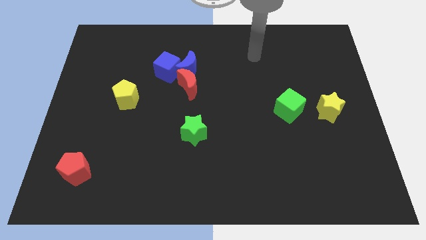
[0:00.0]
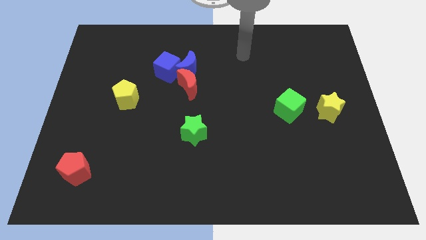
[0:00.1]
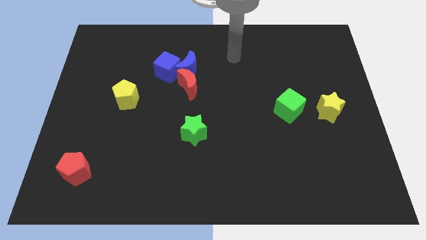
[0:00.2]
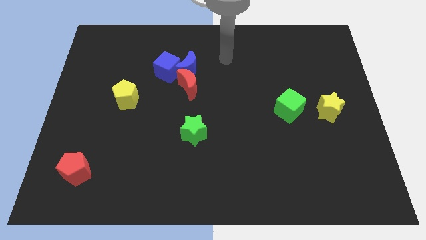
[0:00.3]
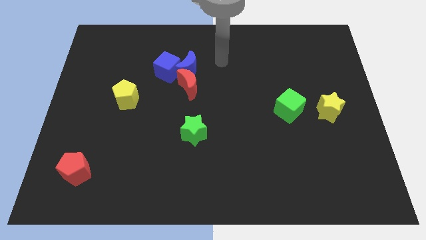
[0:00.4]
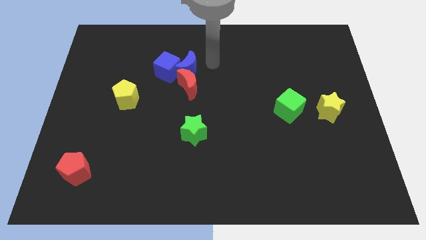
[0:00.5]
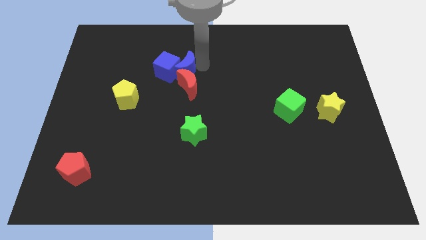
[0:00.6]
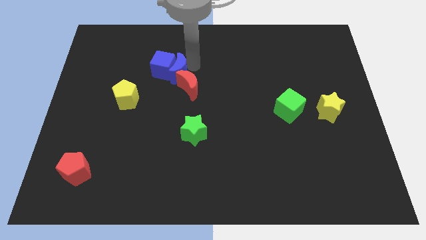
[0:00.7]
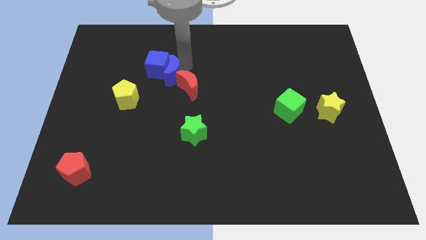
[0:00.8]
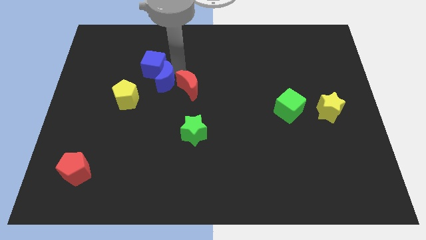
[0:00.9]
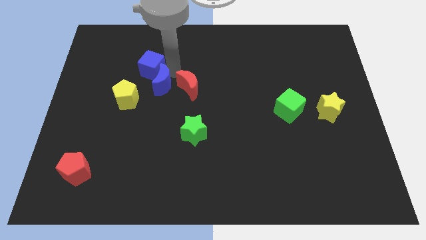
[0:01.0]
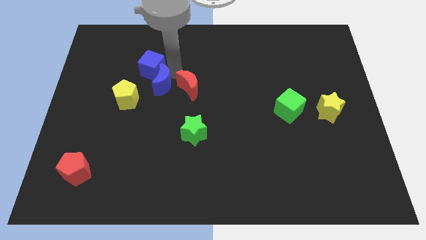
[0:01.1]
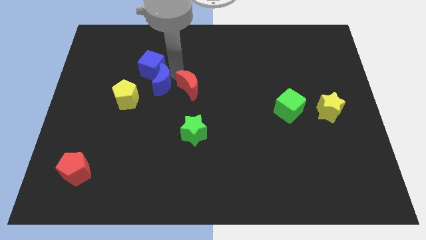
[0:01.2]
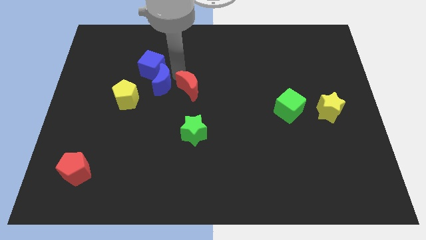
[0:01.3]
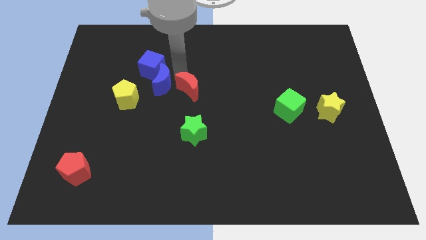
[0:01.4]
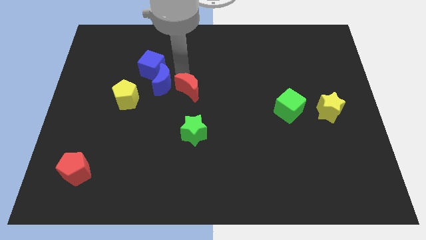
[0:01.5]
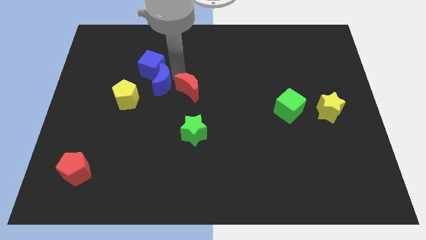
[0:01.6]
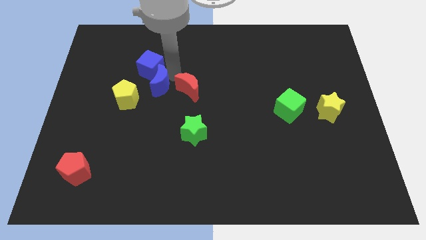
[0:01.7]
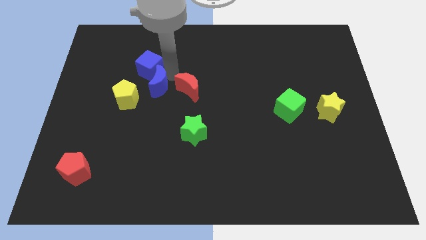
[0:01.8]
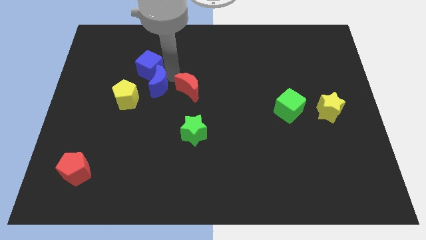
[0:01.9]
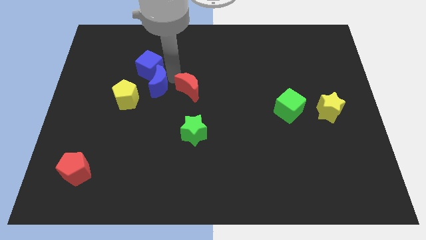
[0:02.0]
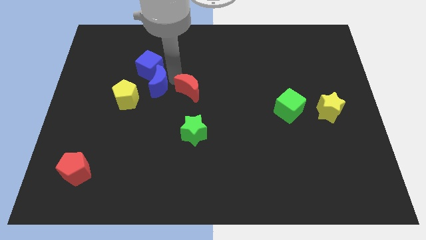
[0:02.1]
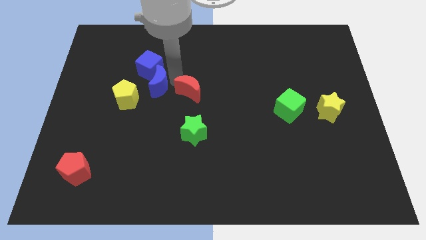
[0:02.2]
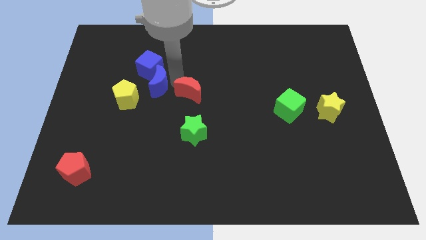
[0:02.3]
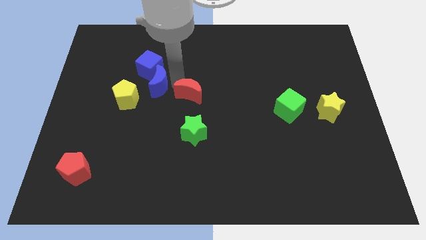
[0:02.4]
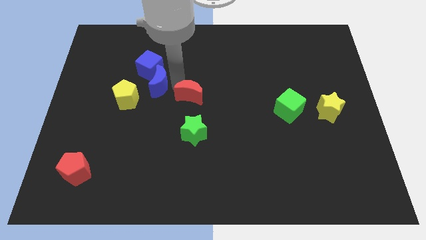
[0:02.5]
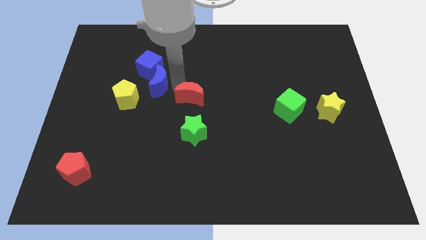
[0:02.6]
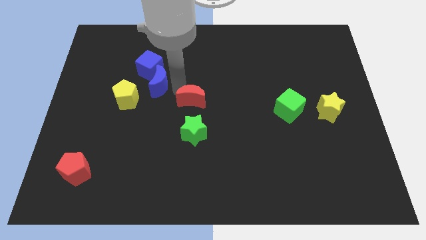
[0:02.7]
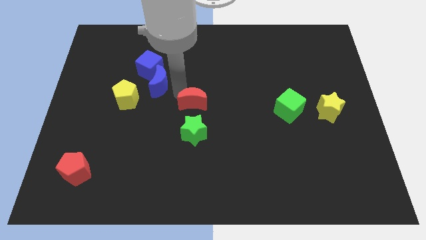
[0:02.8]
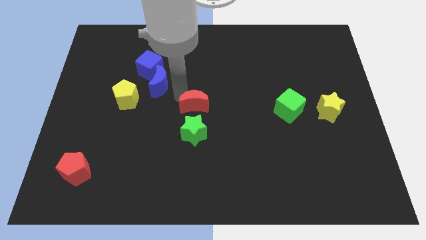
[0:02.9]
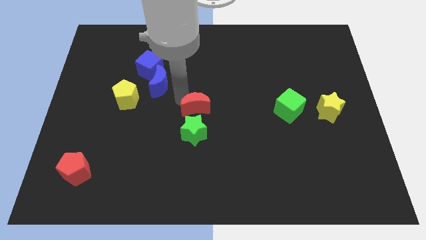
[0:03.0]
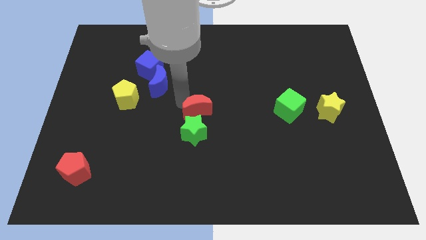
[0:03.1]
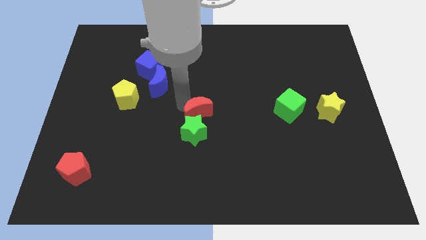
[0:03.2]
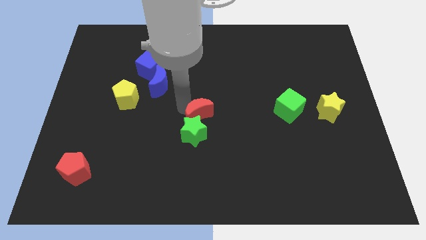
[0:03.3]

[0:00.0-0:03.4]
slide the red moon diagonally downwards and right a little bit

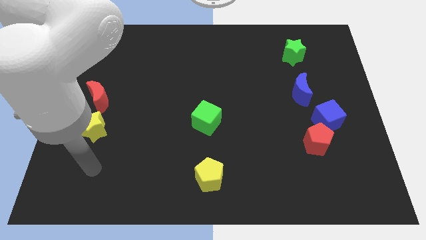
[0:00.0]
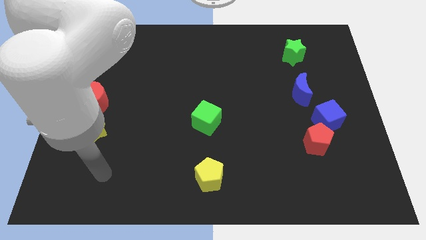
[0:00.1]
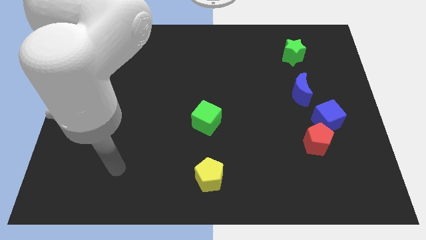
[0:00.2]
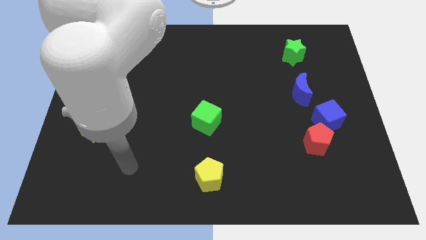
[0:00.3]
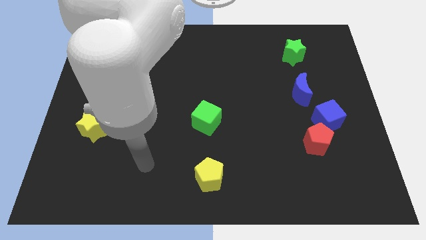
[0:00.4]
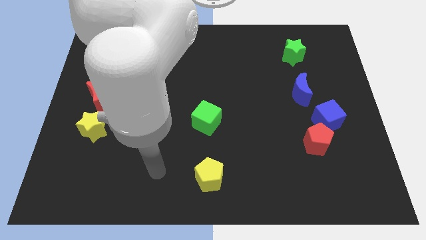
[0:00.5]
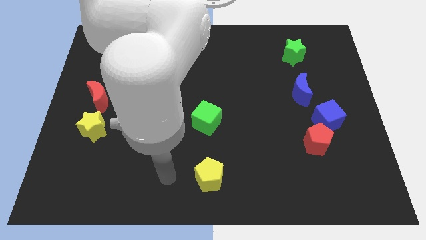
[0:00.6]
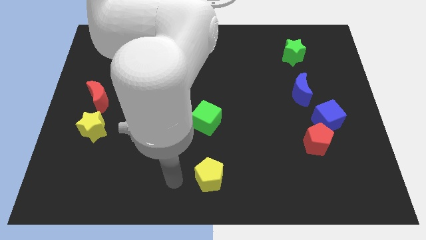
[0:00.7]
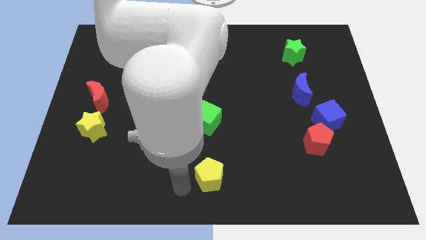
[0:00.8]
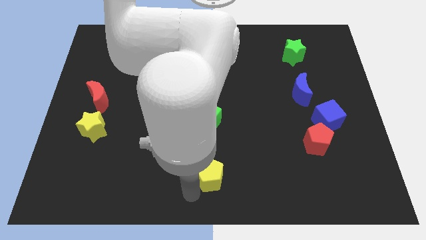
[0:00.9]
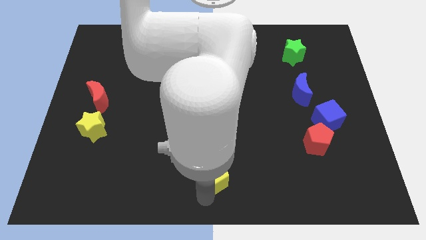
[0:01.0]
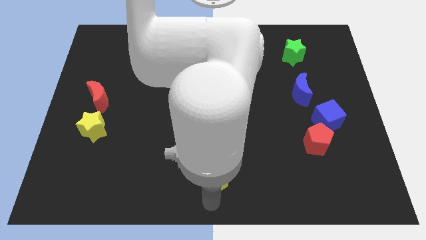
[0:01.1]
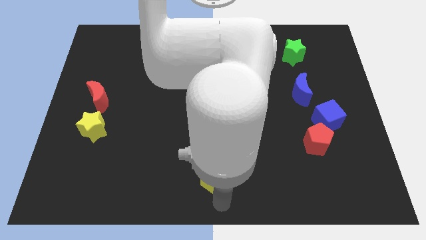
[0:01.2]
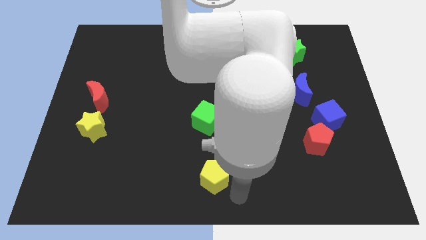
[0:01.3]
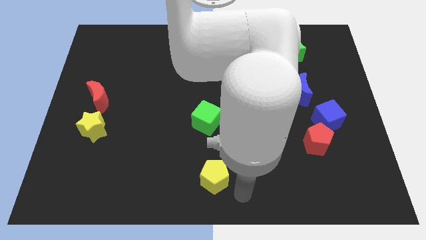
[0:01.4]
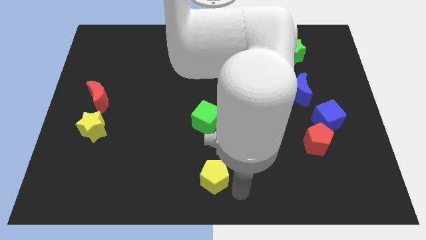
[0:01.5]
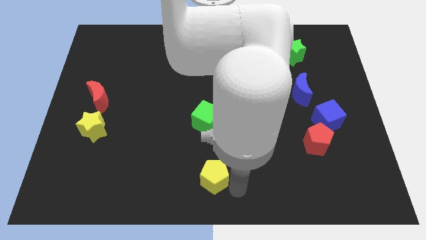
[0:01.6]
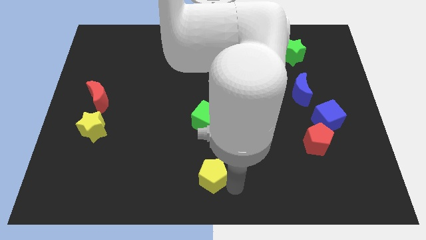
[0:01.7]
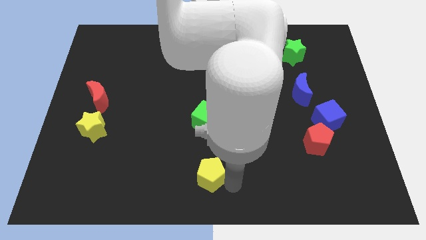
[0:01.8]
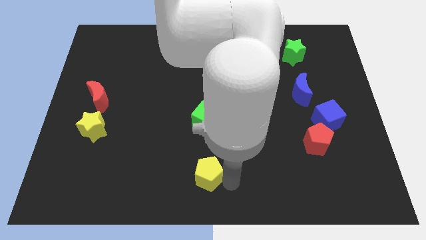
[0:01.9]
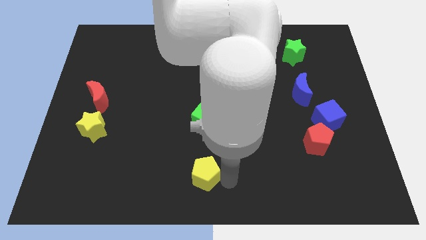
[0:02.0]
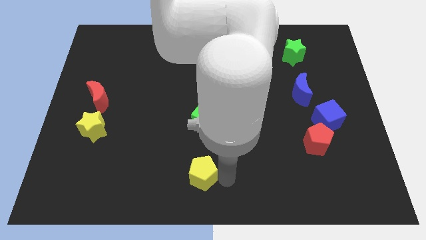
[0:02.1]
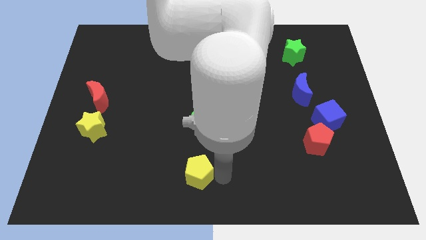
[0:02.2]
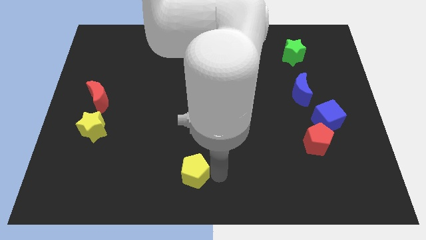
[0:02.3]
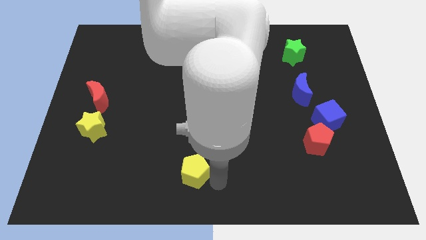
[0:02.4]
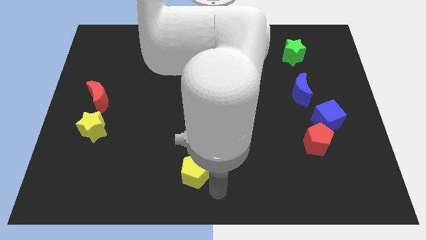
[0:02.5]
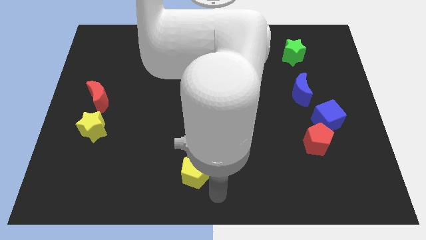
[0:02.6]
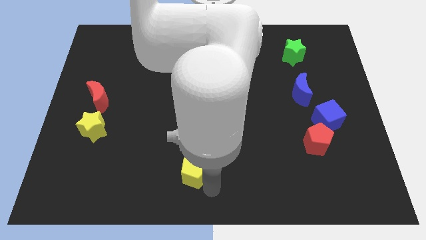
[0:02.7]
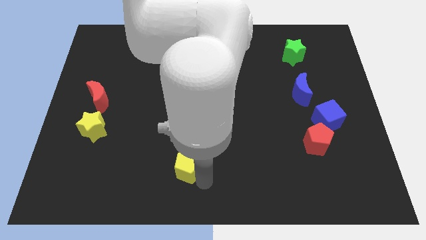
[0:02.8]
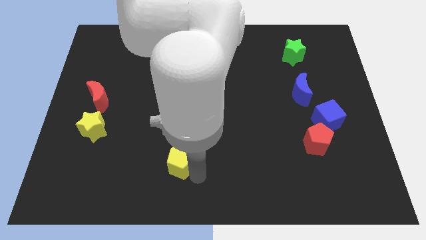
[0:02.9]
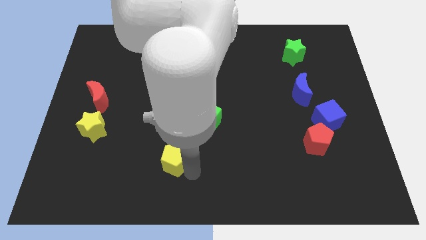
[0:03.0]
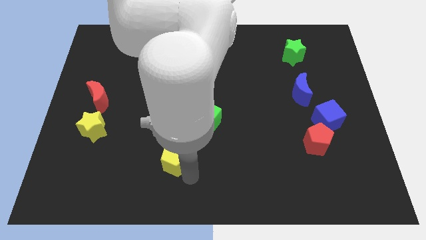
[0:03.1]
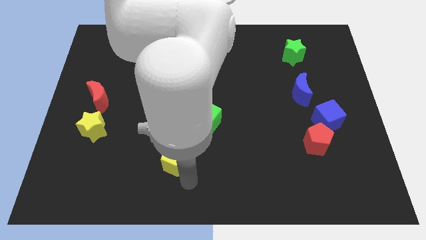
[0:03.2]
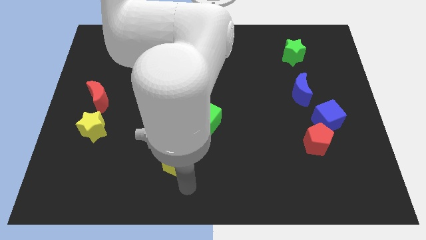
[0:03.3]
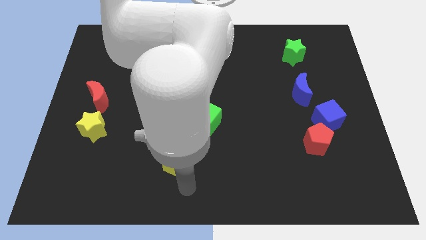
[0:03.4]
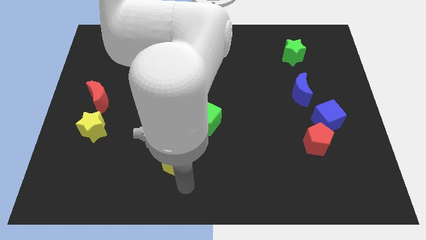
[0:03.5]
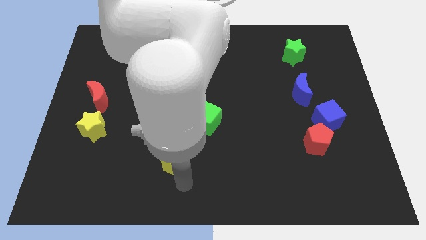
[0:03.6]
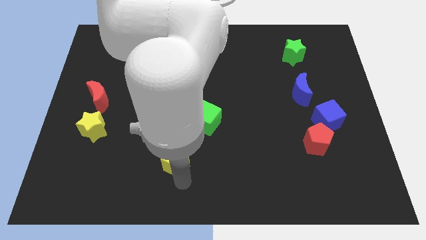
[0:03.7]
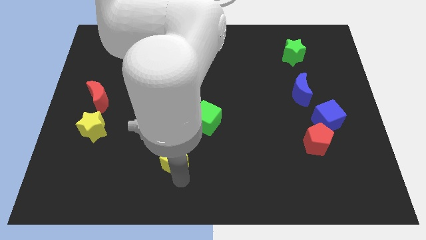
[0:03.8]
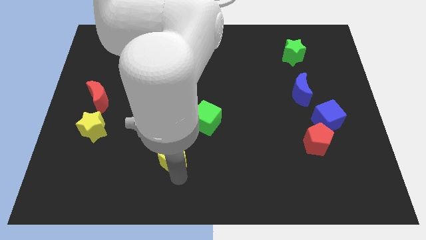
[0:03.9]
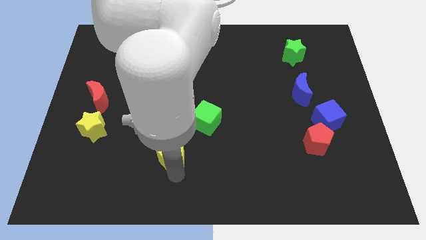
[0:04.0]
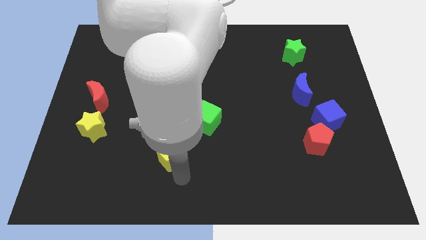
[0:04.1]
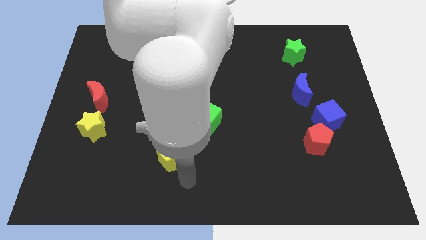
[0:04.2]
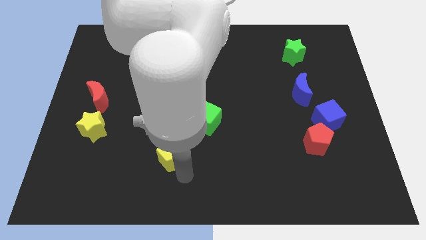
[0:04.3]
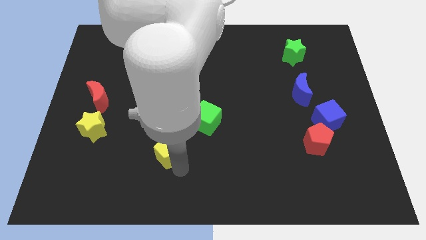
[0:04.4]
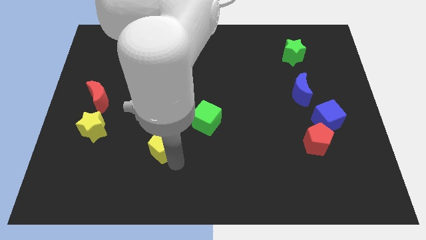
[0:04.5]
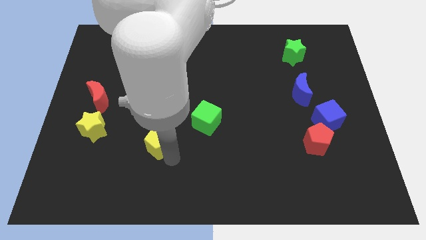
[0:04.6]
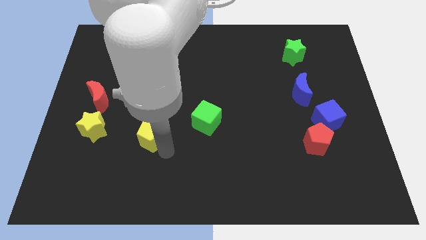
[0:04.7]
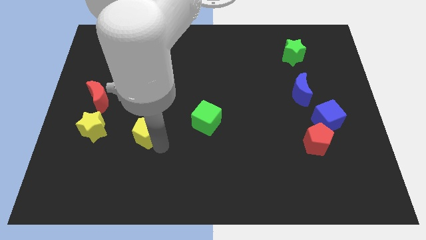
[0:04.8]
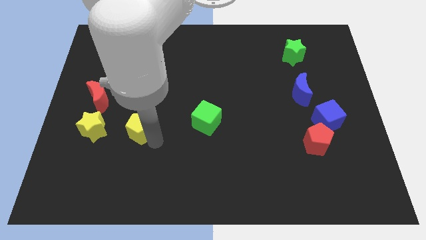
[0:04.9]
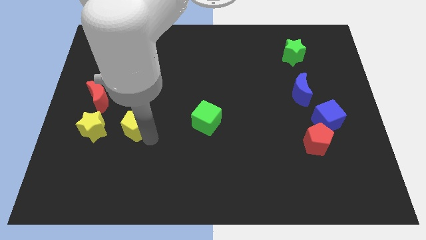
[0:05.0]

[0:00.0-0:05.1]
slide the yellow pentagon diagonally upwards and to the left
